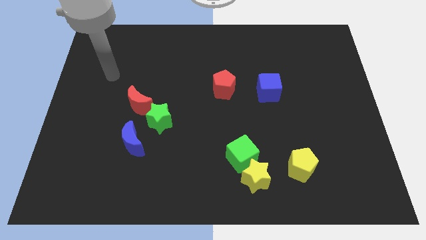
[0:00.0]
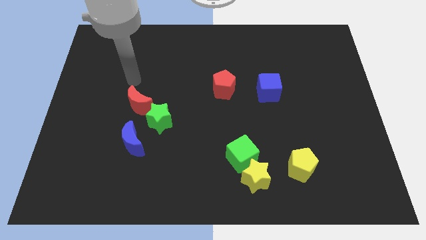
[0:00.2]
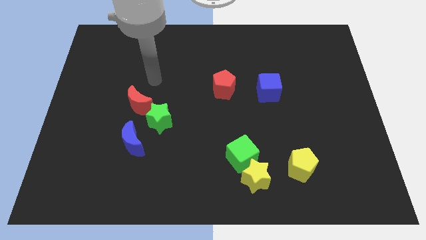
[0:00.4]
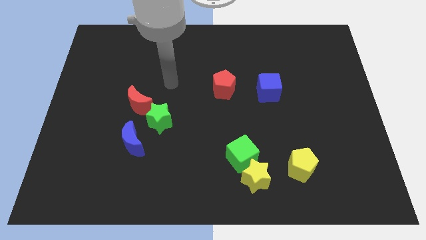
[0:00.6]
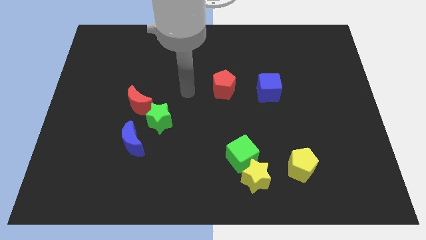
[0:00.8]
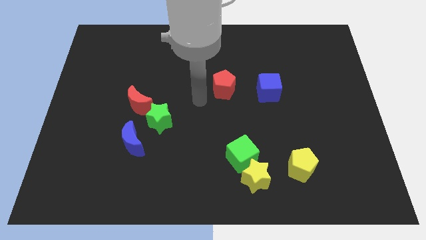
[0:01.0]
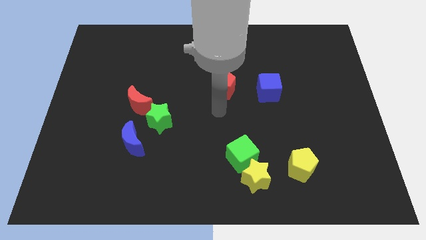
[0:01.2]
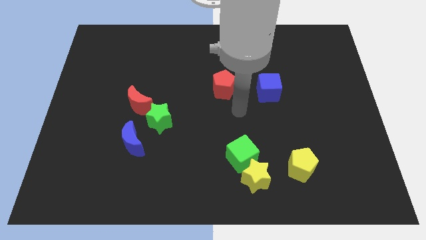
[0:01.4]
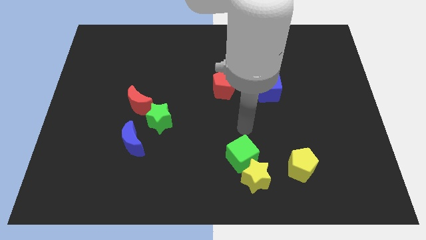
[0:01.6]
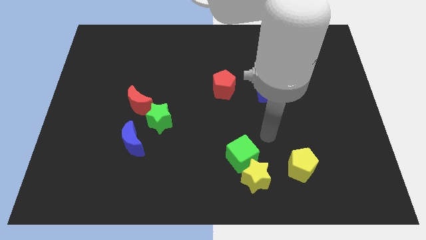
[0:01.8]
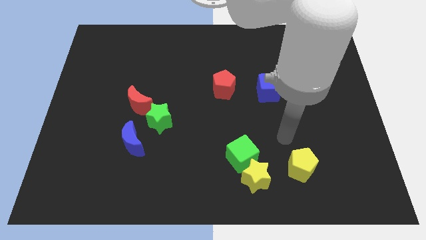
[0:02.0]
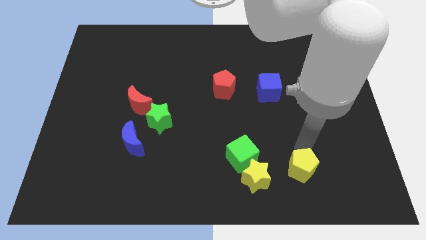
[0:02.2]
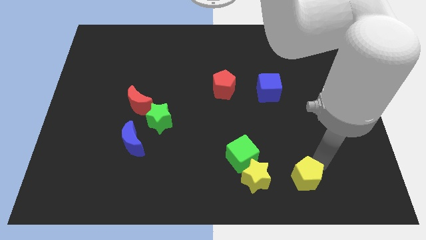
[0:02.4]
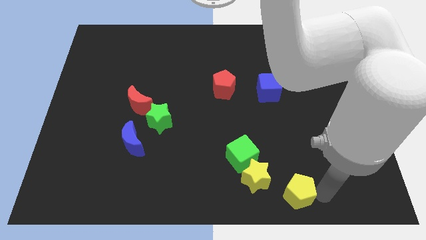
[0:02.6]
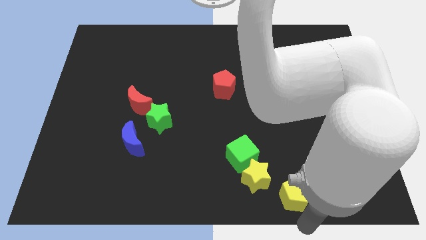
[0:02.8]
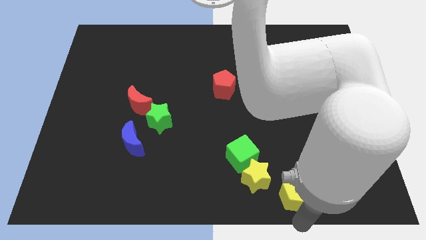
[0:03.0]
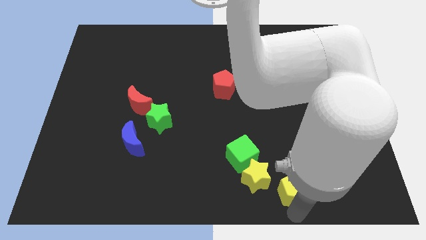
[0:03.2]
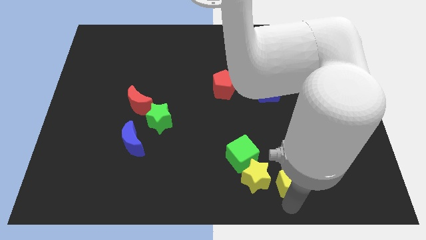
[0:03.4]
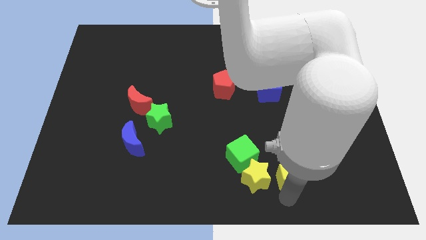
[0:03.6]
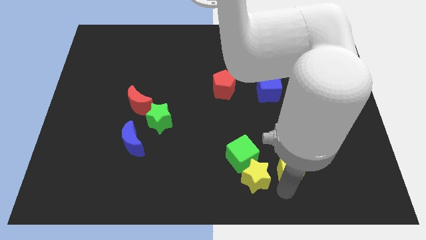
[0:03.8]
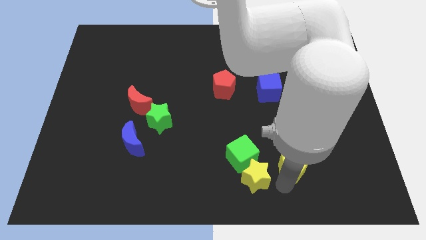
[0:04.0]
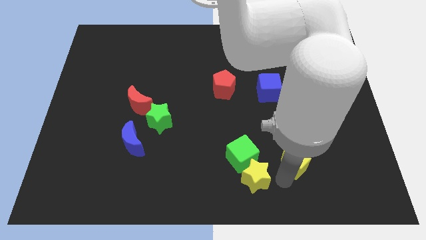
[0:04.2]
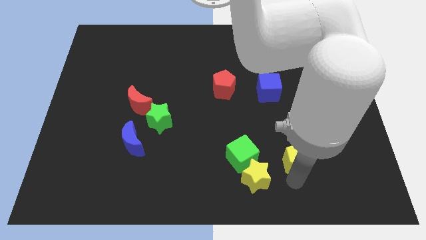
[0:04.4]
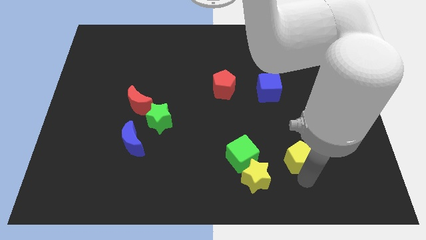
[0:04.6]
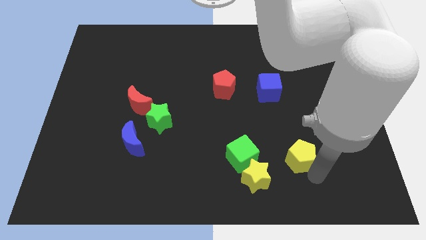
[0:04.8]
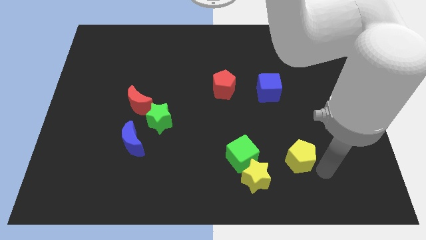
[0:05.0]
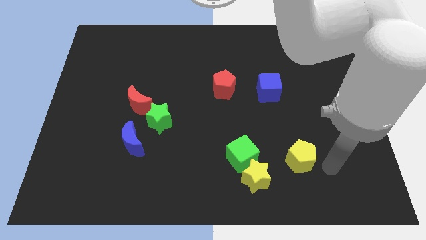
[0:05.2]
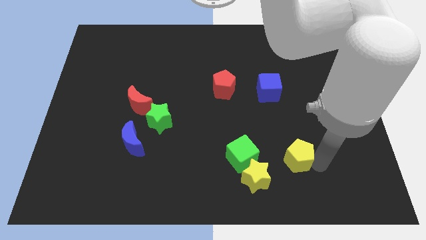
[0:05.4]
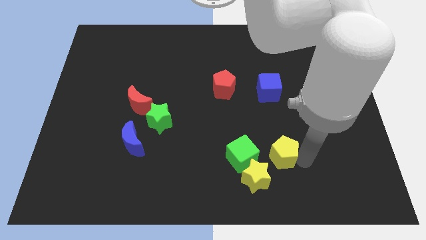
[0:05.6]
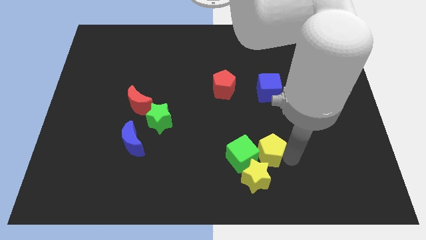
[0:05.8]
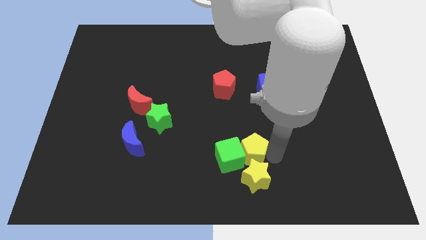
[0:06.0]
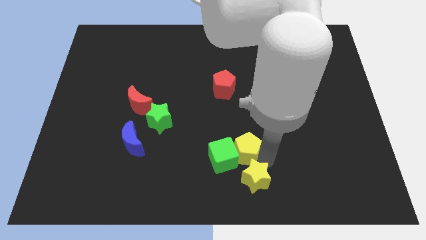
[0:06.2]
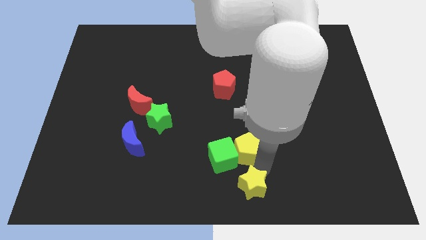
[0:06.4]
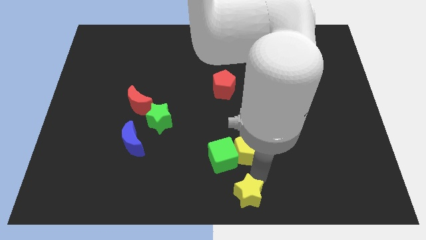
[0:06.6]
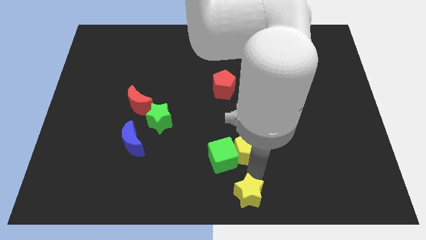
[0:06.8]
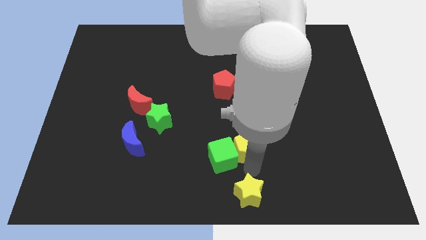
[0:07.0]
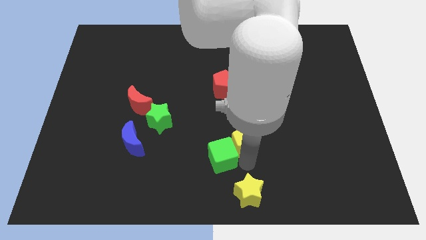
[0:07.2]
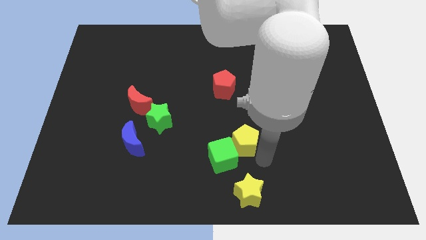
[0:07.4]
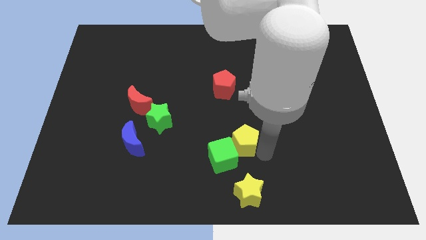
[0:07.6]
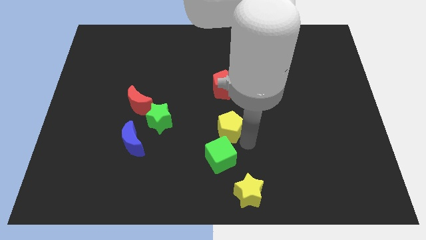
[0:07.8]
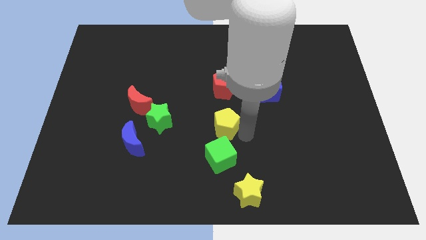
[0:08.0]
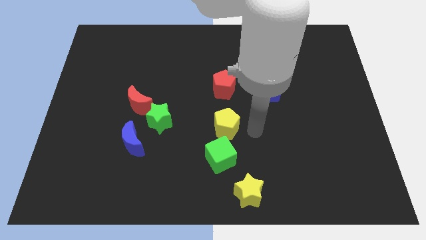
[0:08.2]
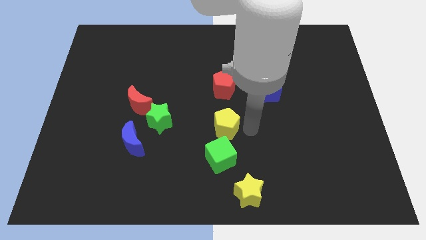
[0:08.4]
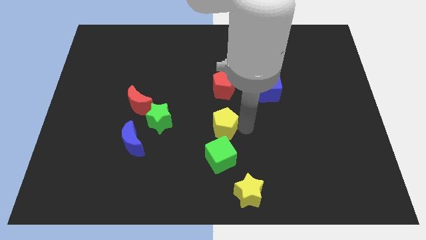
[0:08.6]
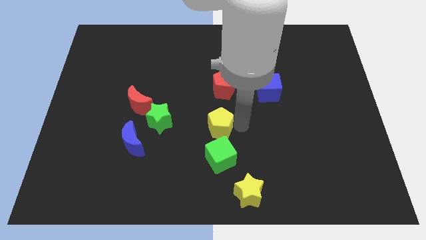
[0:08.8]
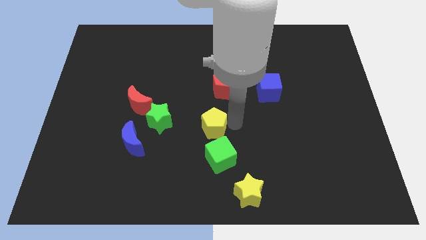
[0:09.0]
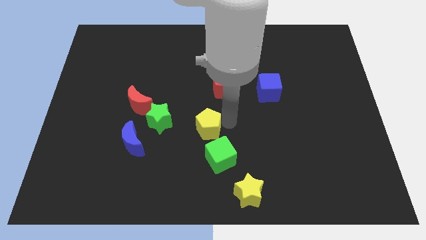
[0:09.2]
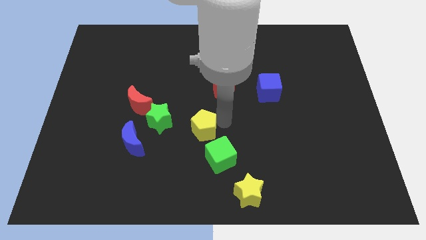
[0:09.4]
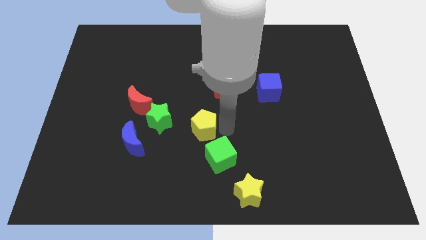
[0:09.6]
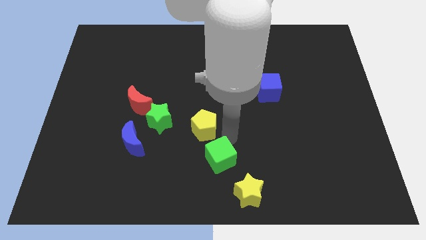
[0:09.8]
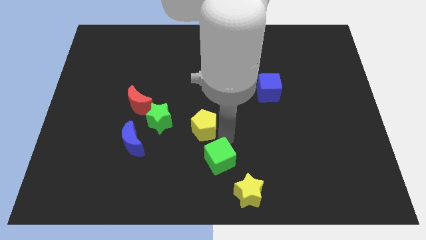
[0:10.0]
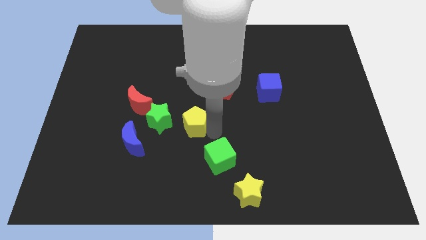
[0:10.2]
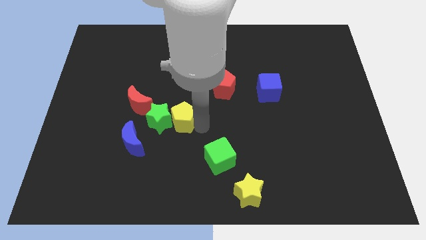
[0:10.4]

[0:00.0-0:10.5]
slide the yellow pentagon to the green star

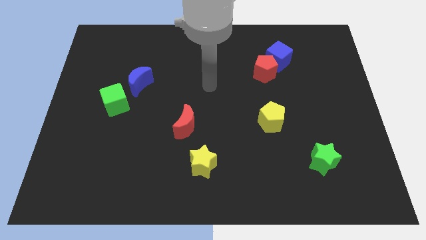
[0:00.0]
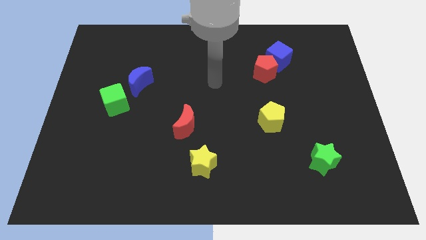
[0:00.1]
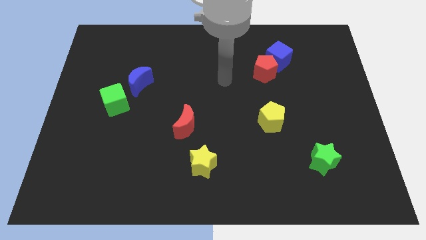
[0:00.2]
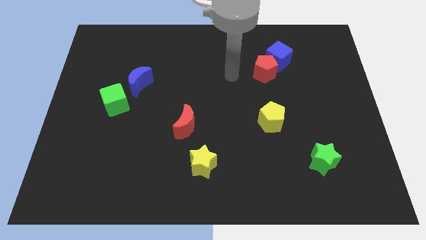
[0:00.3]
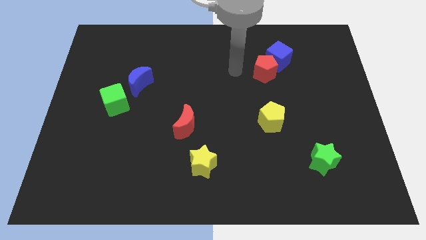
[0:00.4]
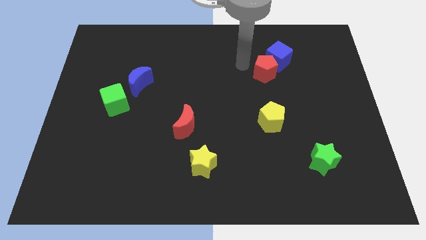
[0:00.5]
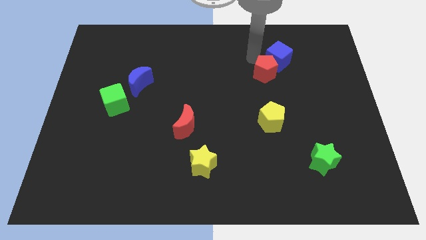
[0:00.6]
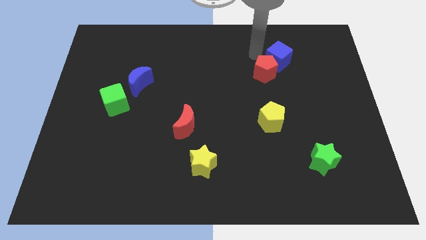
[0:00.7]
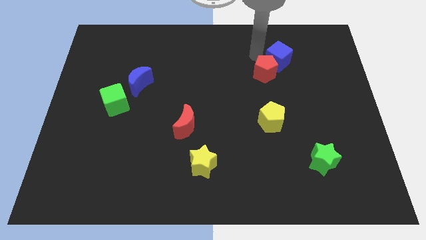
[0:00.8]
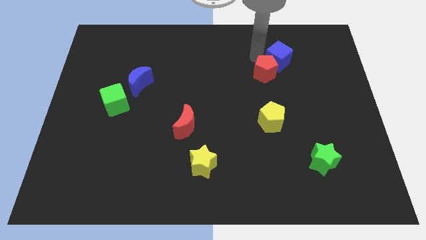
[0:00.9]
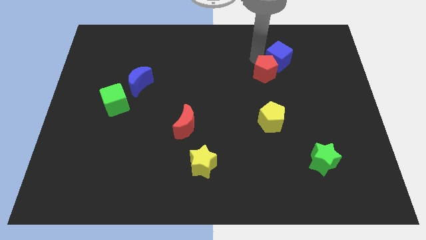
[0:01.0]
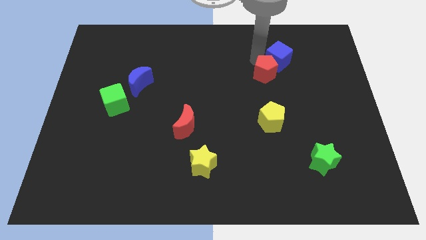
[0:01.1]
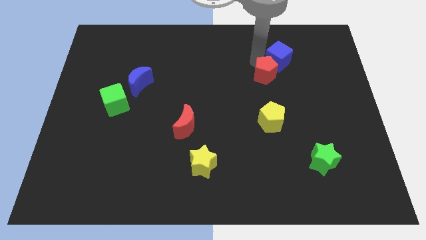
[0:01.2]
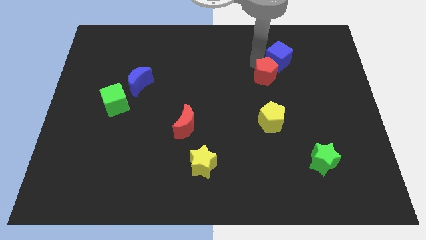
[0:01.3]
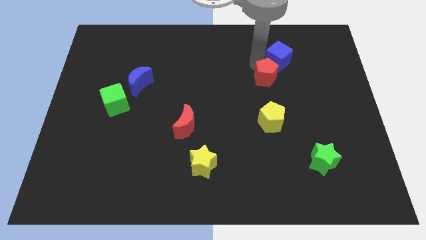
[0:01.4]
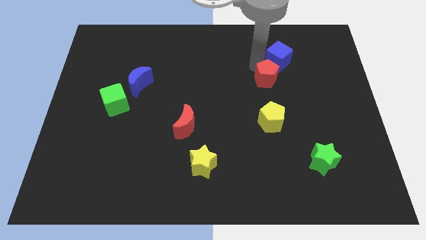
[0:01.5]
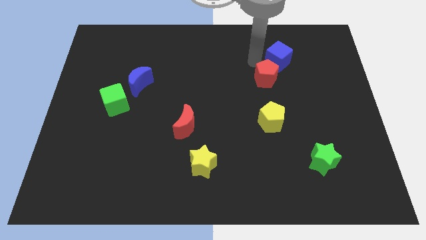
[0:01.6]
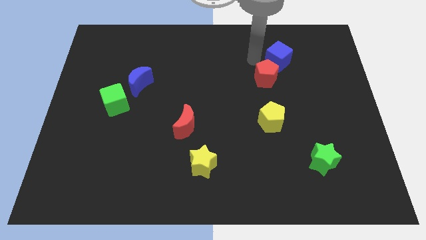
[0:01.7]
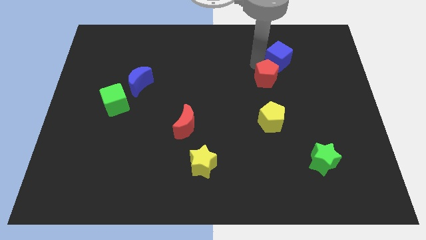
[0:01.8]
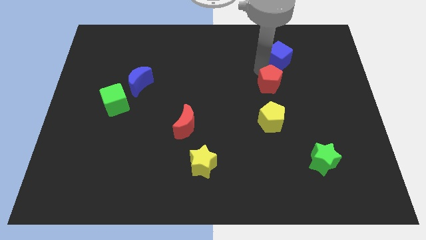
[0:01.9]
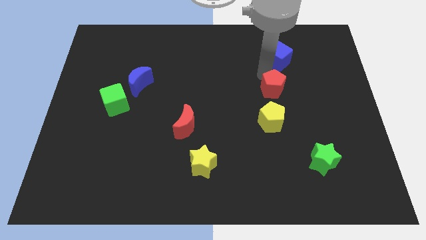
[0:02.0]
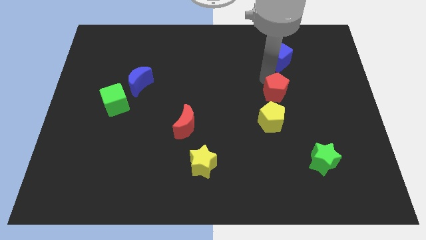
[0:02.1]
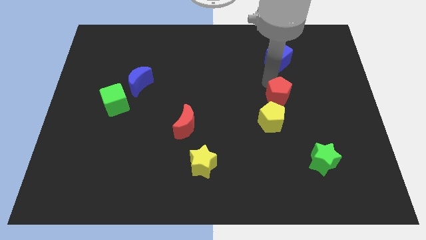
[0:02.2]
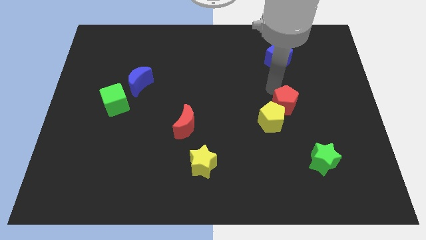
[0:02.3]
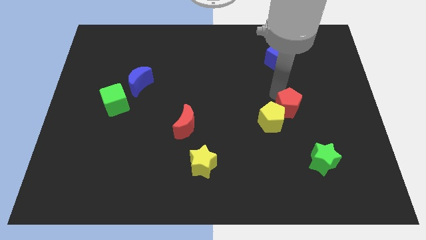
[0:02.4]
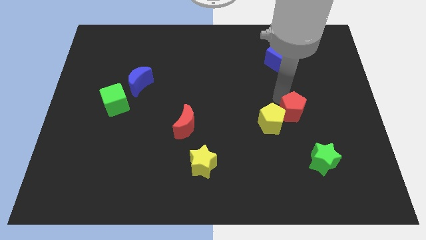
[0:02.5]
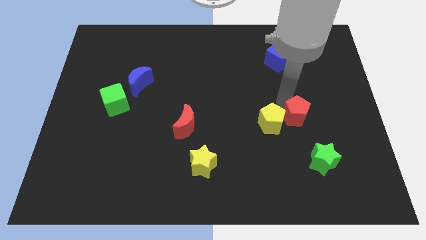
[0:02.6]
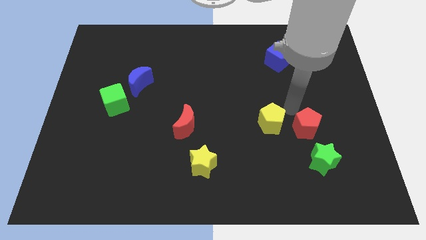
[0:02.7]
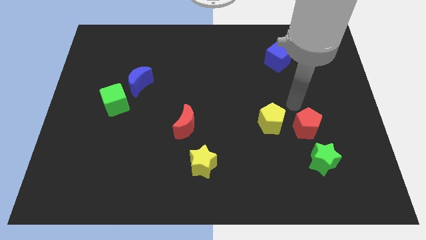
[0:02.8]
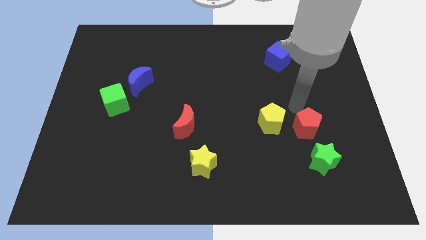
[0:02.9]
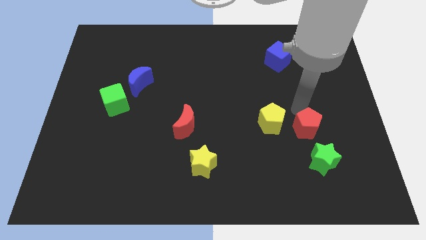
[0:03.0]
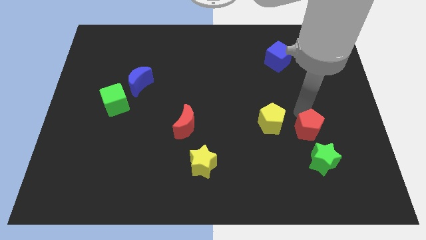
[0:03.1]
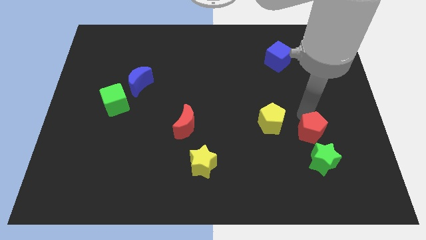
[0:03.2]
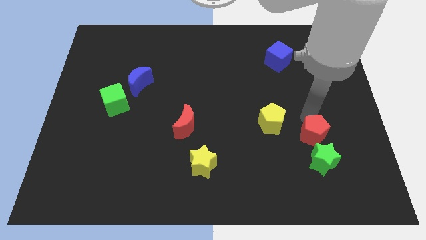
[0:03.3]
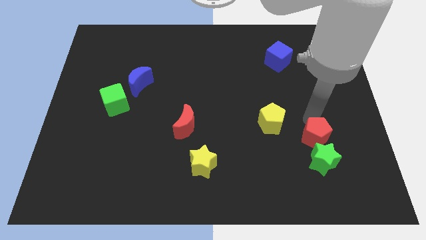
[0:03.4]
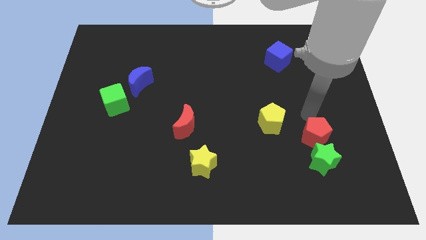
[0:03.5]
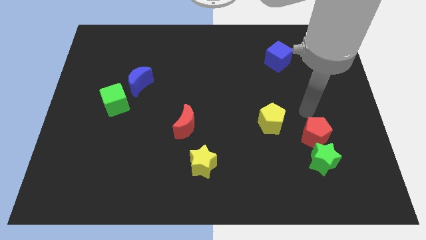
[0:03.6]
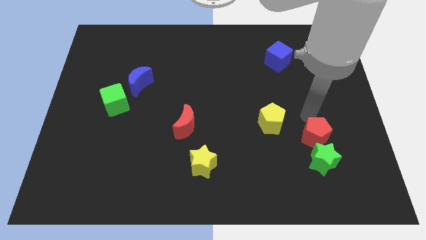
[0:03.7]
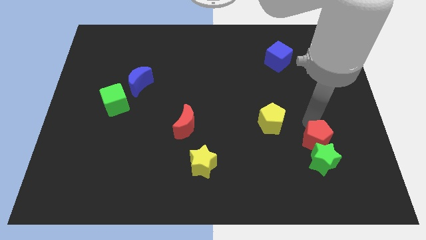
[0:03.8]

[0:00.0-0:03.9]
move the red pentagon next to the green star
